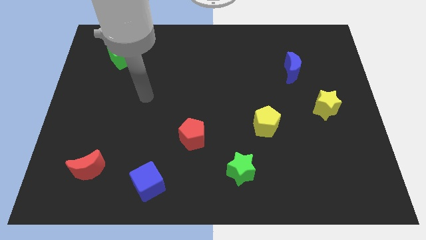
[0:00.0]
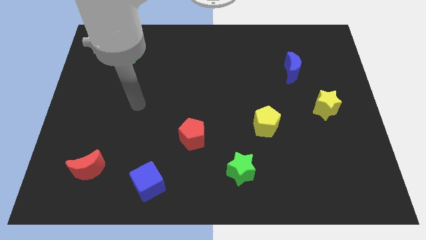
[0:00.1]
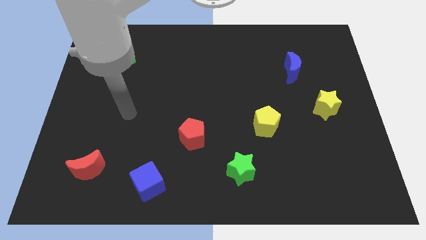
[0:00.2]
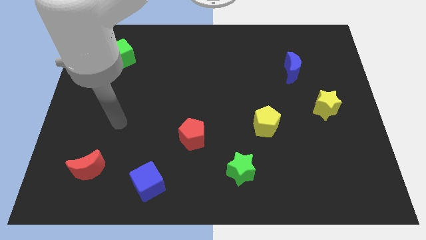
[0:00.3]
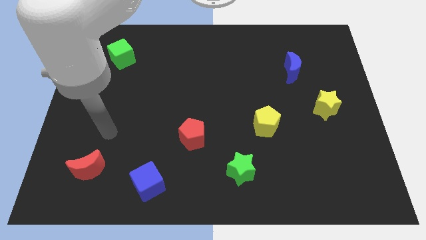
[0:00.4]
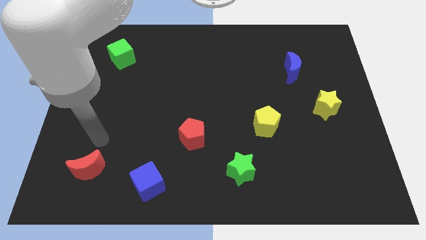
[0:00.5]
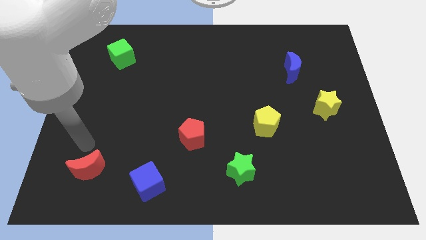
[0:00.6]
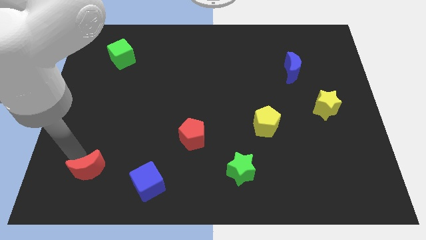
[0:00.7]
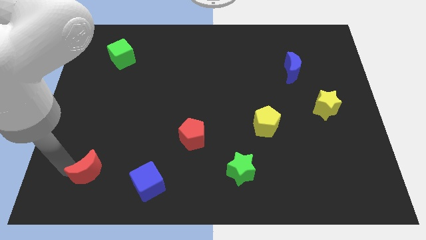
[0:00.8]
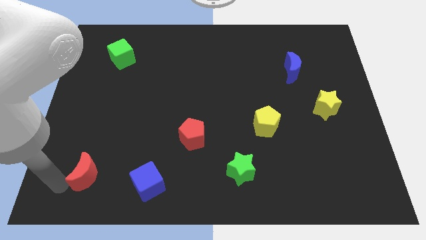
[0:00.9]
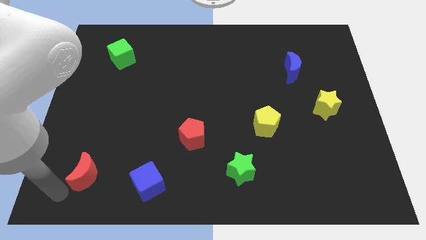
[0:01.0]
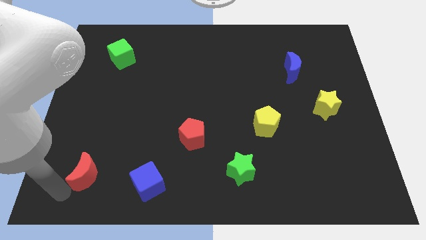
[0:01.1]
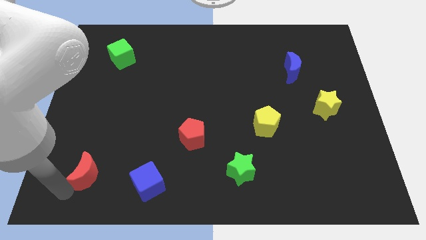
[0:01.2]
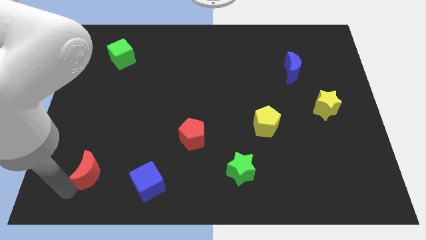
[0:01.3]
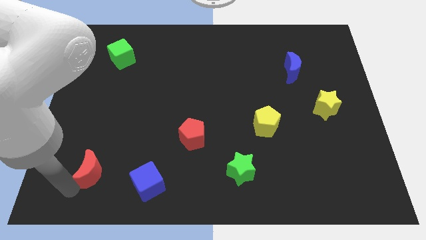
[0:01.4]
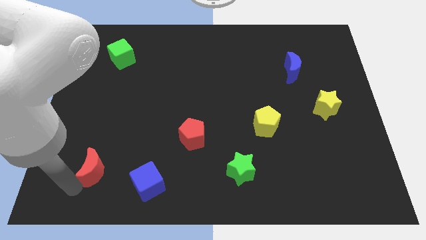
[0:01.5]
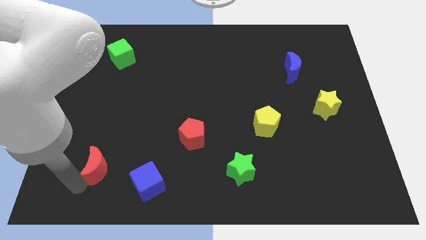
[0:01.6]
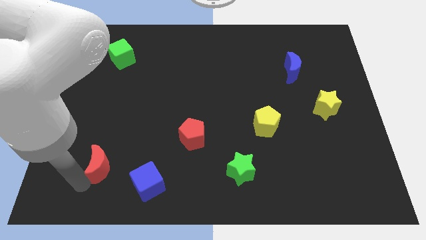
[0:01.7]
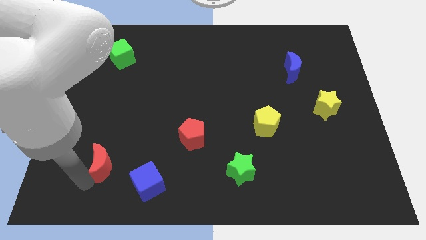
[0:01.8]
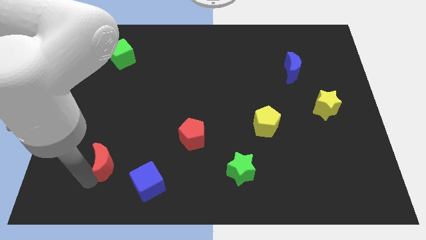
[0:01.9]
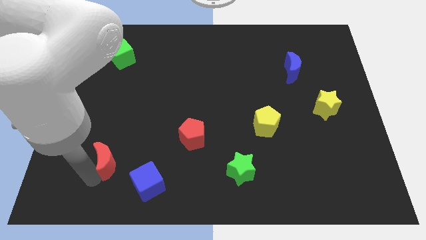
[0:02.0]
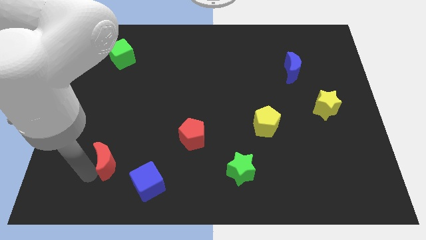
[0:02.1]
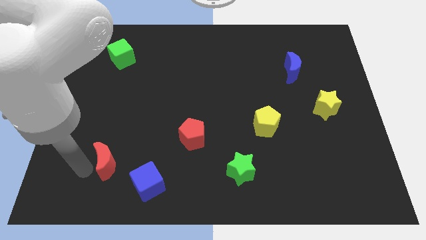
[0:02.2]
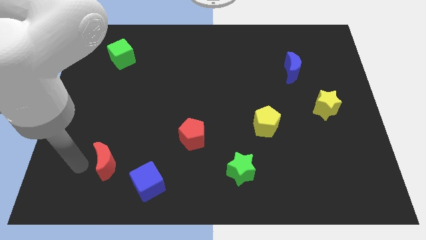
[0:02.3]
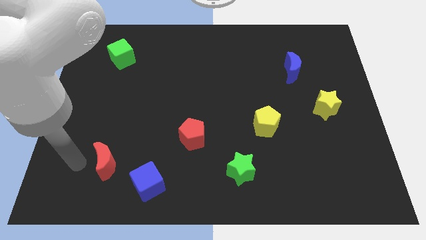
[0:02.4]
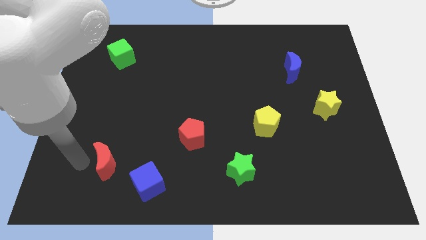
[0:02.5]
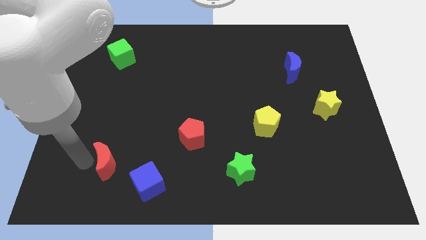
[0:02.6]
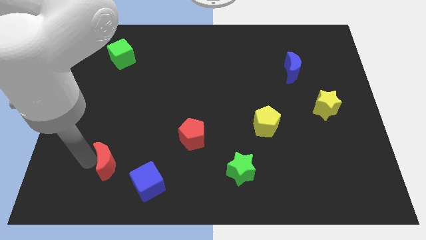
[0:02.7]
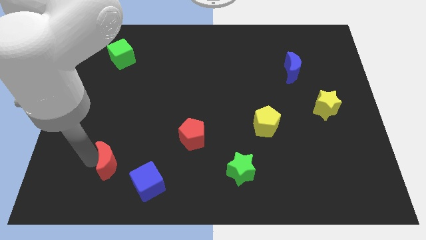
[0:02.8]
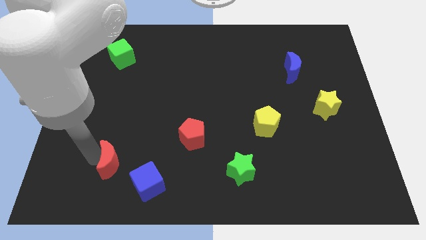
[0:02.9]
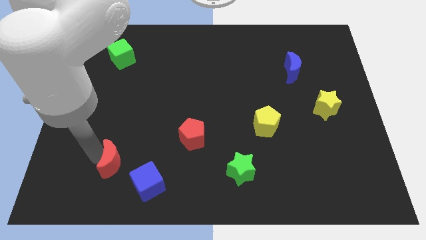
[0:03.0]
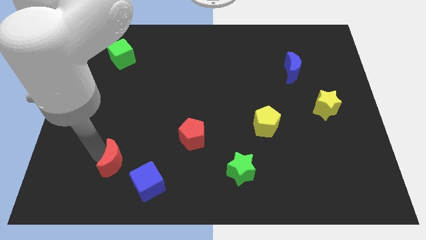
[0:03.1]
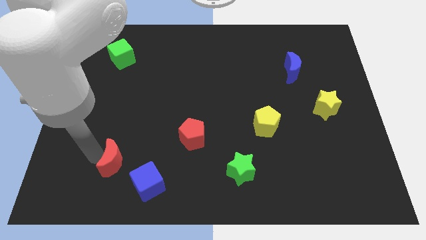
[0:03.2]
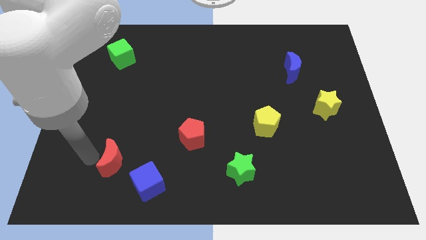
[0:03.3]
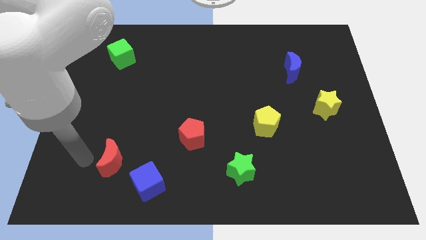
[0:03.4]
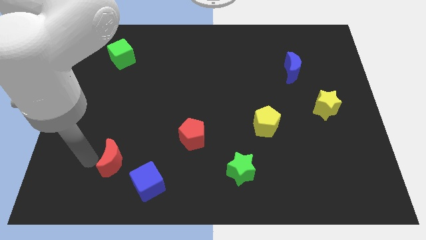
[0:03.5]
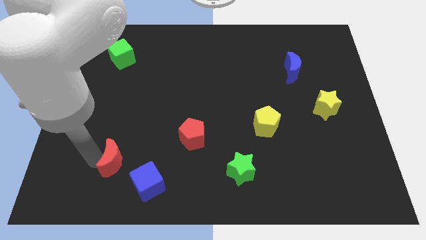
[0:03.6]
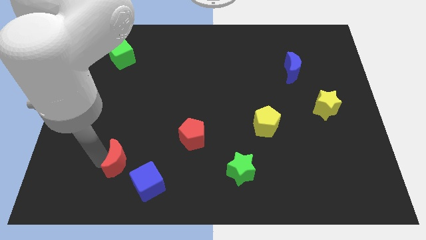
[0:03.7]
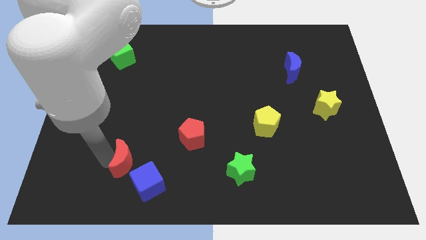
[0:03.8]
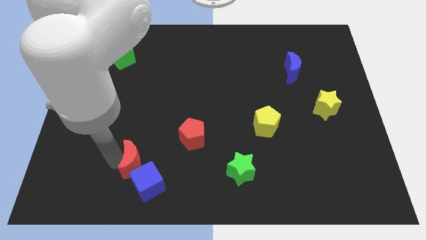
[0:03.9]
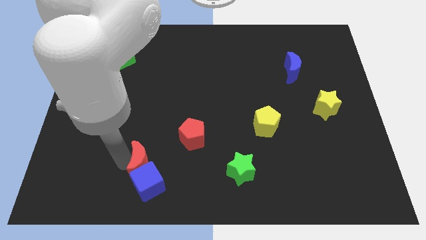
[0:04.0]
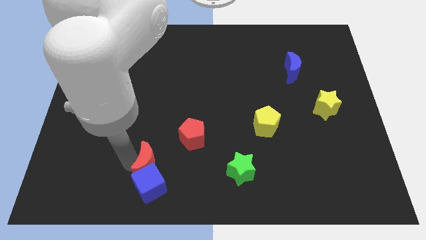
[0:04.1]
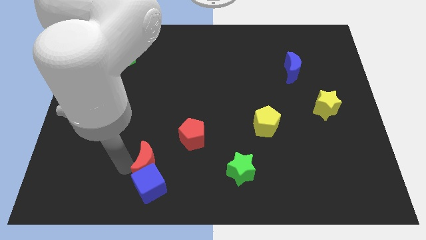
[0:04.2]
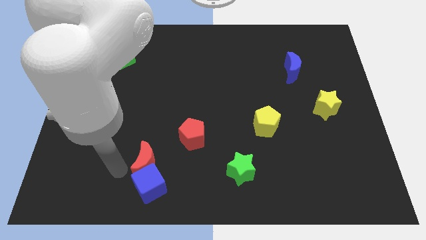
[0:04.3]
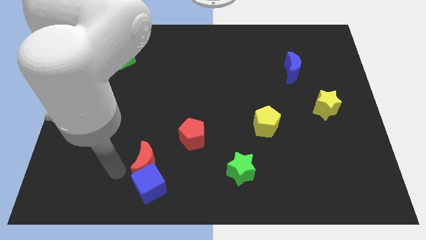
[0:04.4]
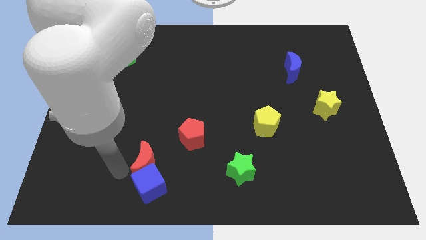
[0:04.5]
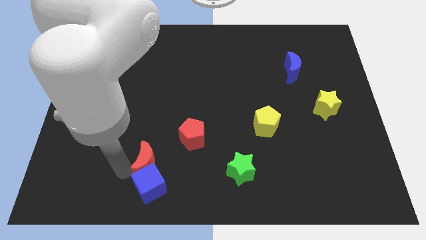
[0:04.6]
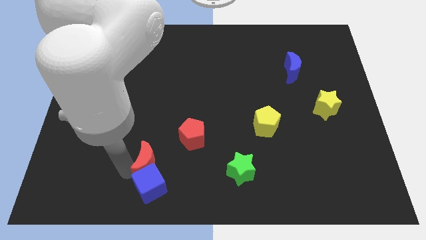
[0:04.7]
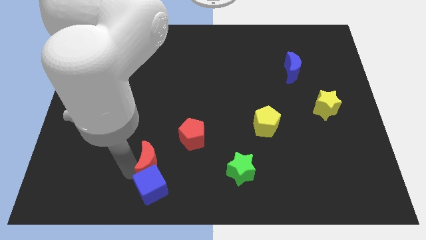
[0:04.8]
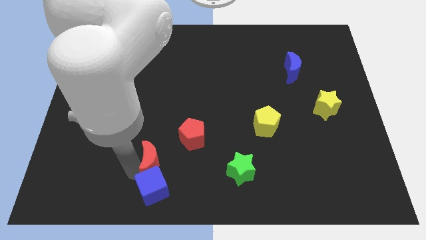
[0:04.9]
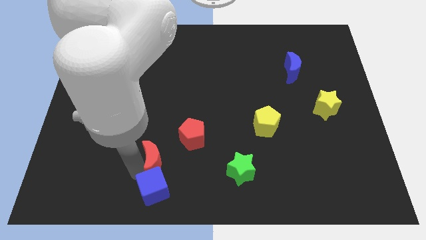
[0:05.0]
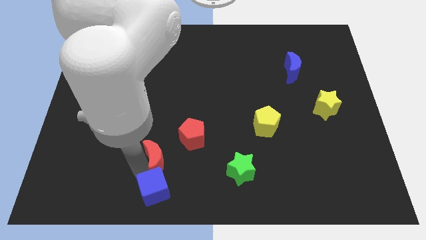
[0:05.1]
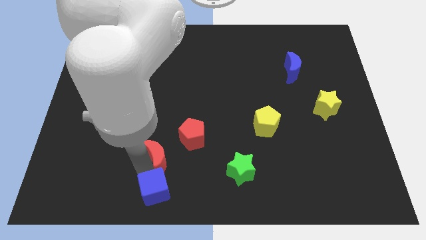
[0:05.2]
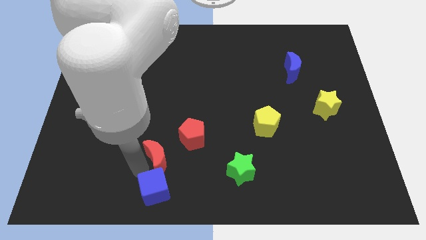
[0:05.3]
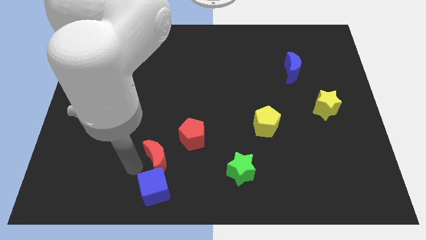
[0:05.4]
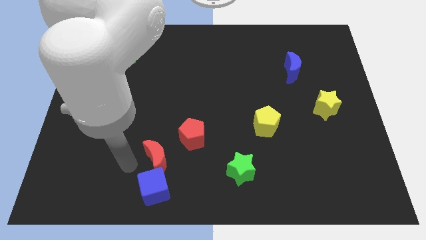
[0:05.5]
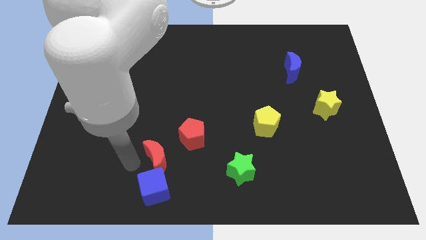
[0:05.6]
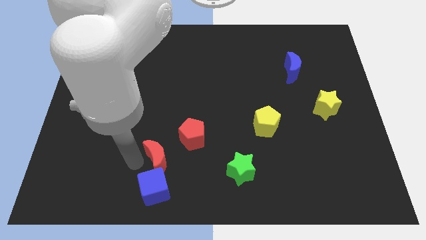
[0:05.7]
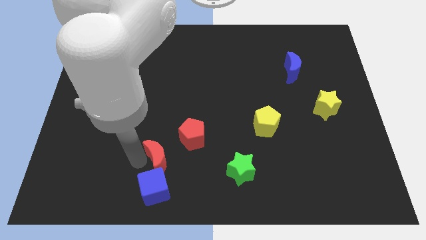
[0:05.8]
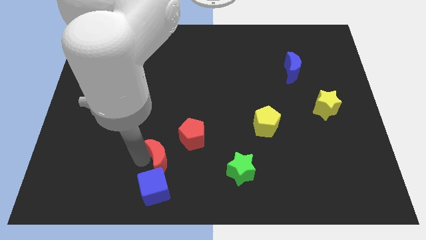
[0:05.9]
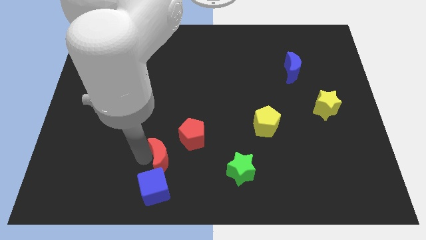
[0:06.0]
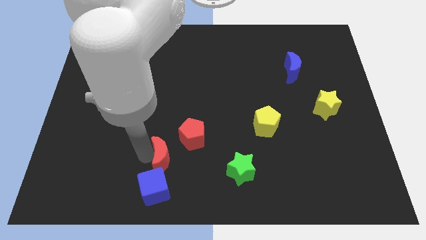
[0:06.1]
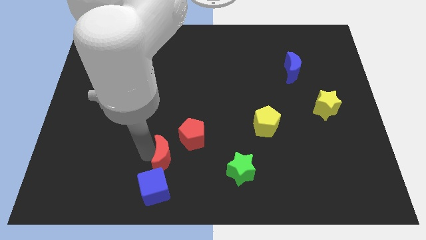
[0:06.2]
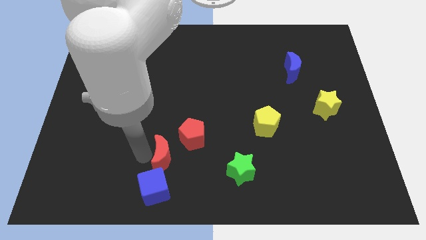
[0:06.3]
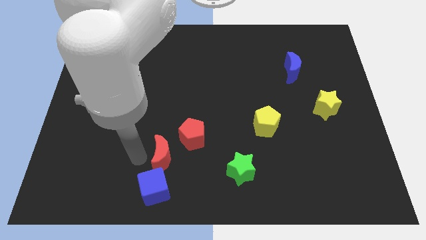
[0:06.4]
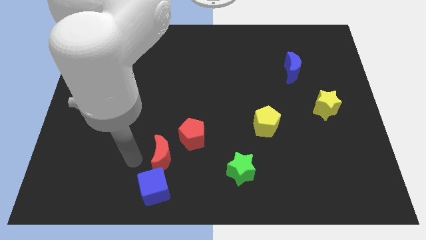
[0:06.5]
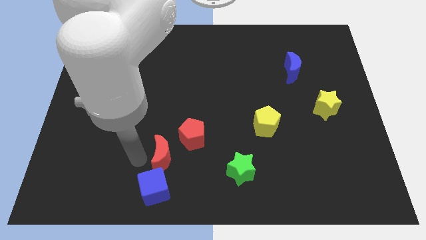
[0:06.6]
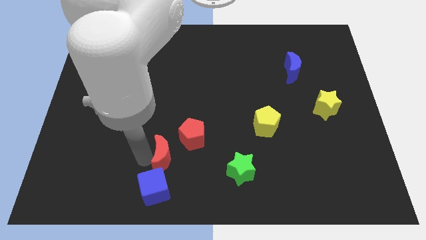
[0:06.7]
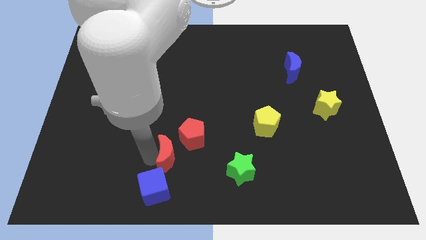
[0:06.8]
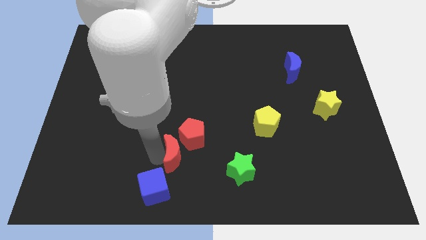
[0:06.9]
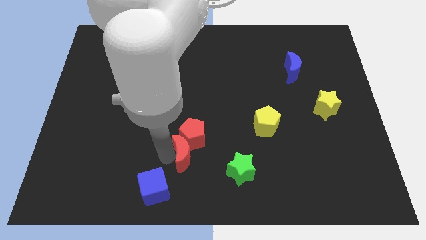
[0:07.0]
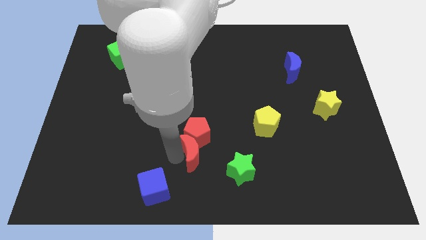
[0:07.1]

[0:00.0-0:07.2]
put the red moon to the top left of the green star
